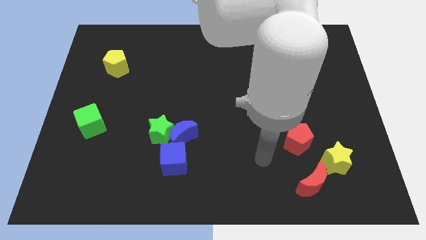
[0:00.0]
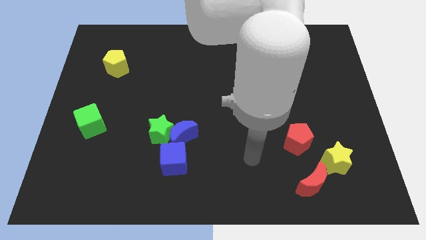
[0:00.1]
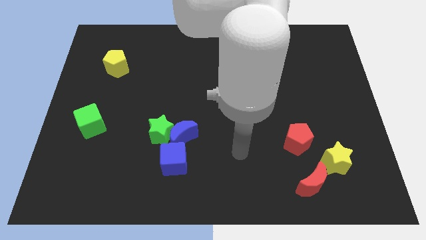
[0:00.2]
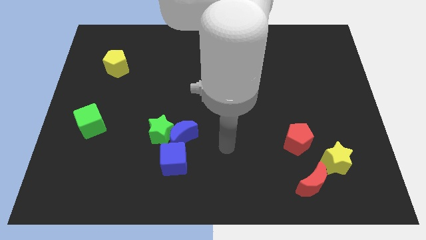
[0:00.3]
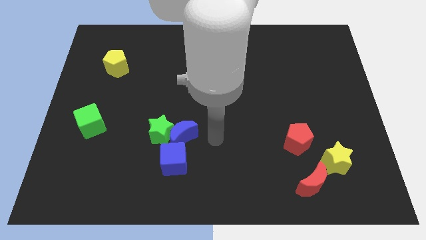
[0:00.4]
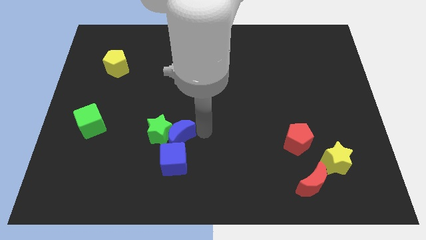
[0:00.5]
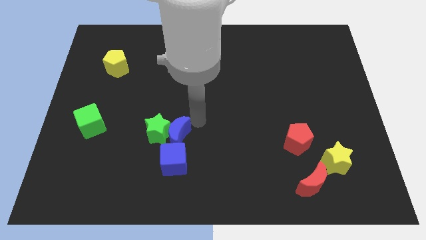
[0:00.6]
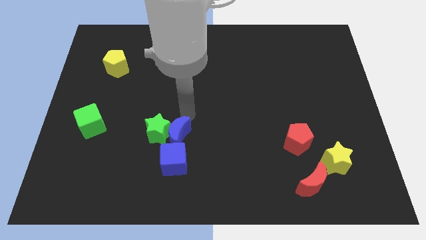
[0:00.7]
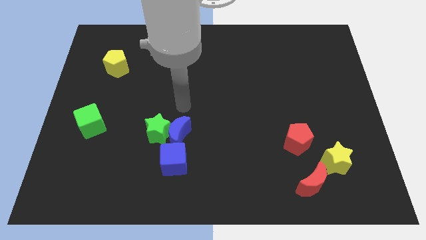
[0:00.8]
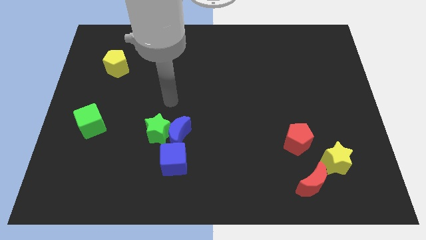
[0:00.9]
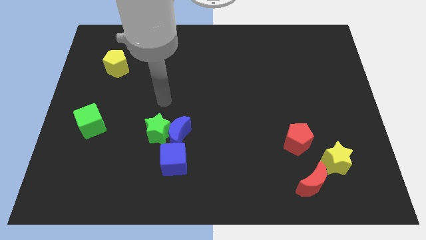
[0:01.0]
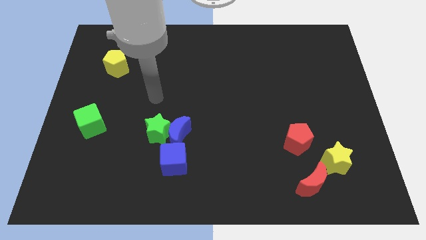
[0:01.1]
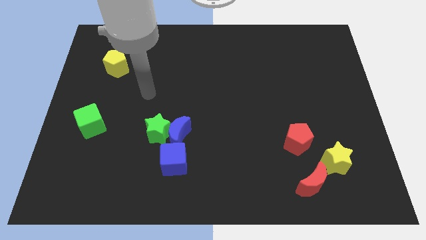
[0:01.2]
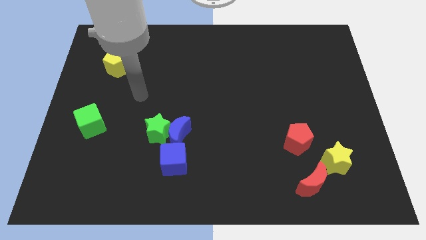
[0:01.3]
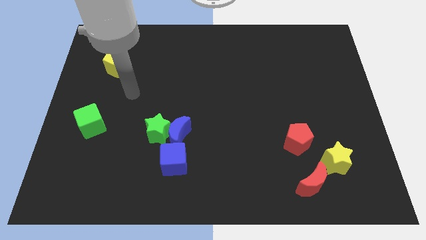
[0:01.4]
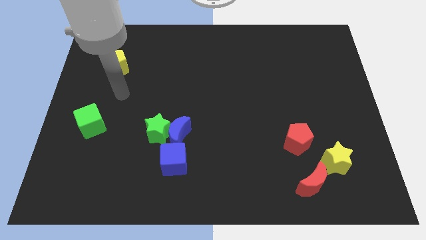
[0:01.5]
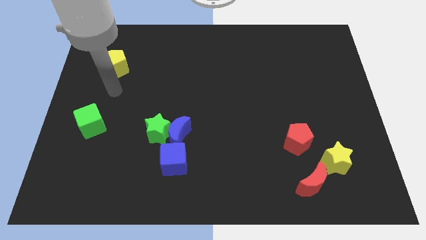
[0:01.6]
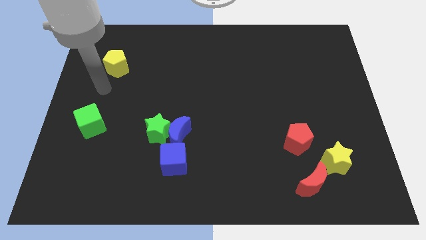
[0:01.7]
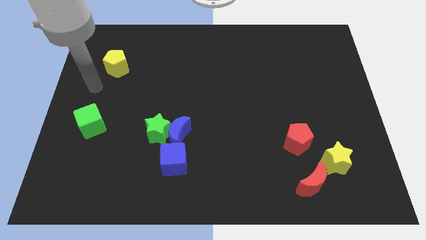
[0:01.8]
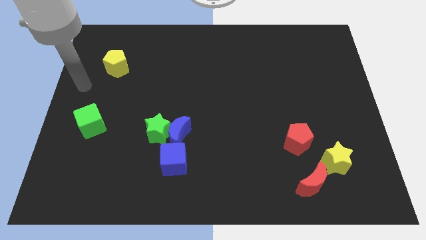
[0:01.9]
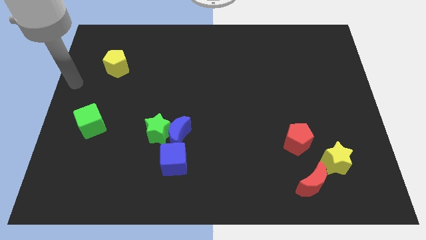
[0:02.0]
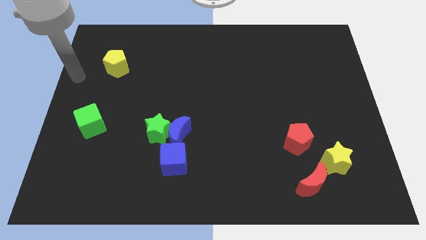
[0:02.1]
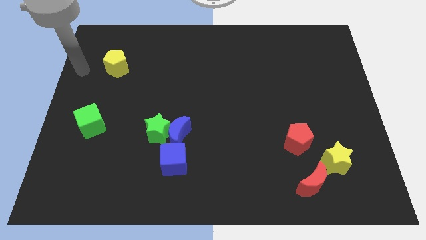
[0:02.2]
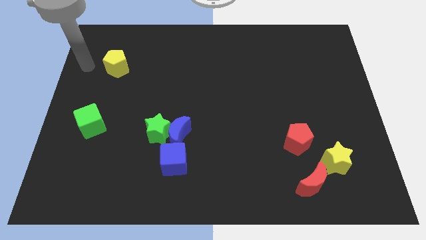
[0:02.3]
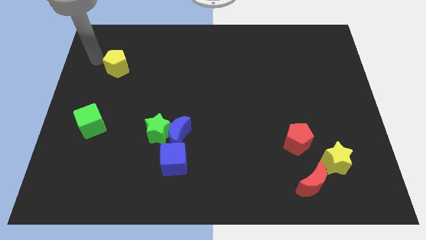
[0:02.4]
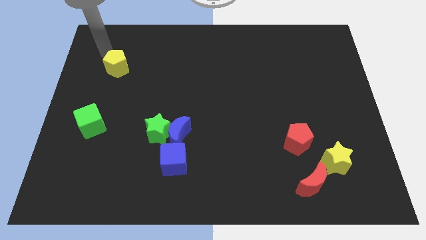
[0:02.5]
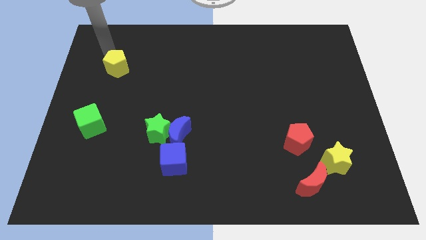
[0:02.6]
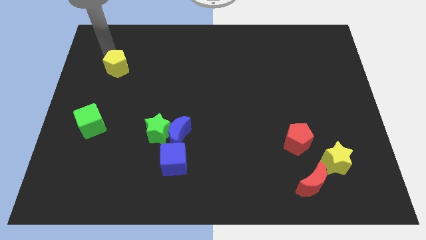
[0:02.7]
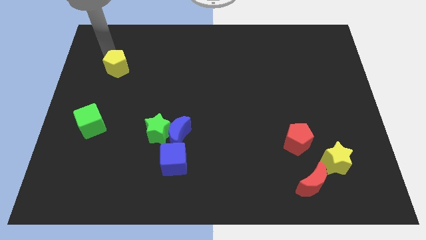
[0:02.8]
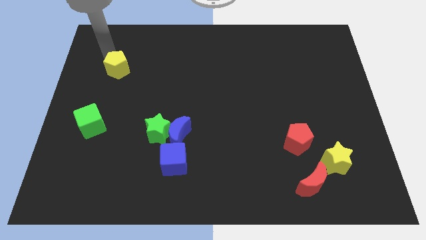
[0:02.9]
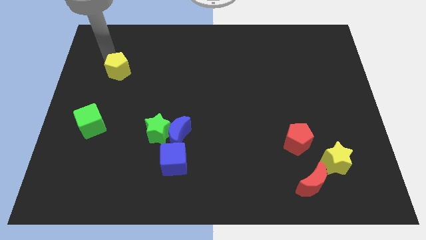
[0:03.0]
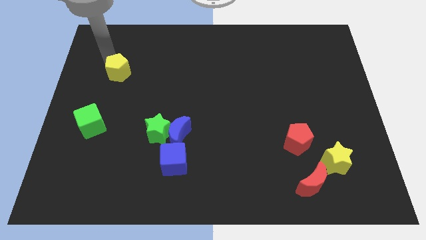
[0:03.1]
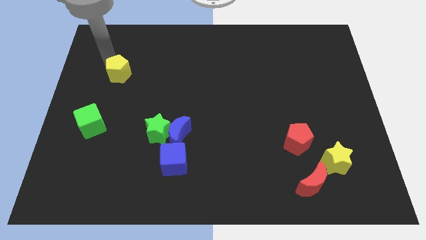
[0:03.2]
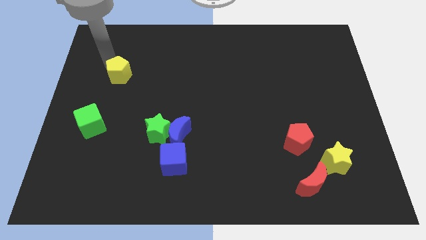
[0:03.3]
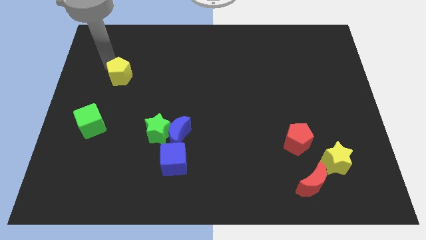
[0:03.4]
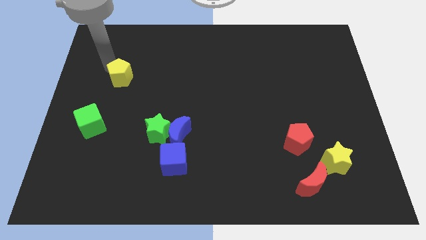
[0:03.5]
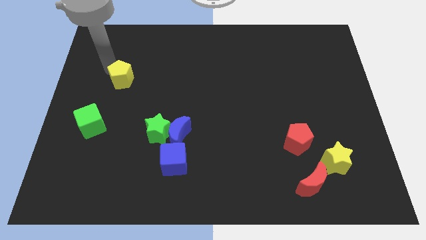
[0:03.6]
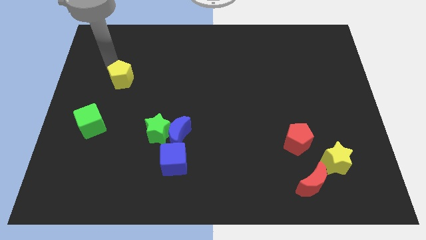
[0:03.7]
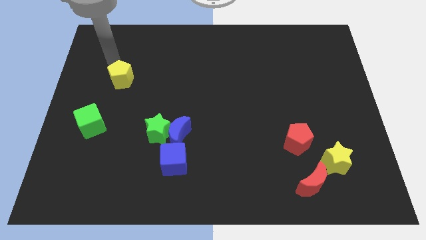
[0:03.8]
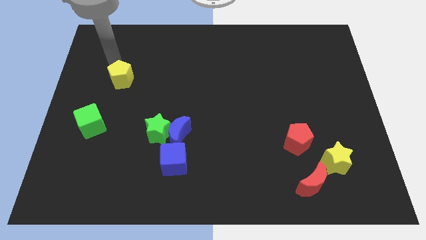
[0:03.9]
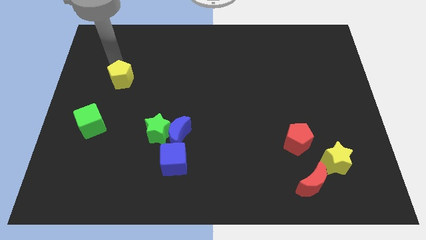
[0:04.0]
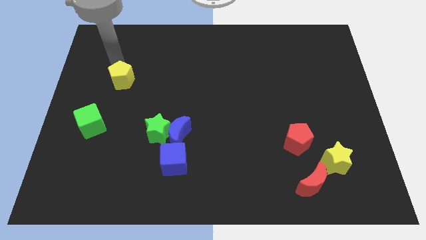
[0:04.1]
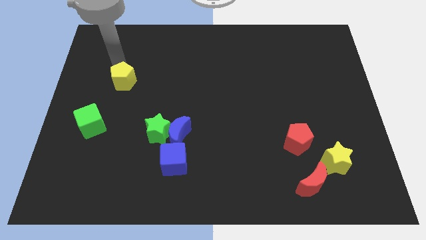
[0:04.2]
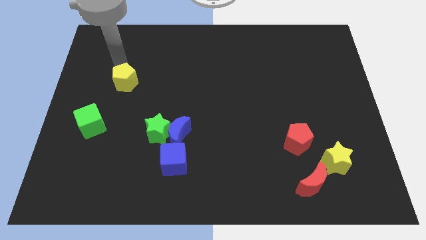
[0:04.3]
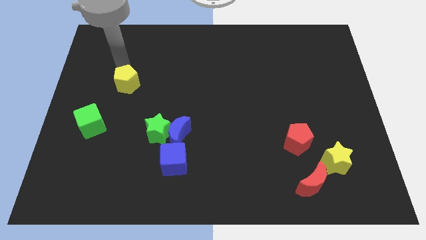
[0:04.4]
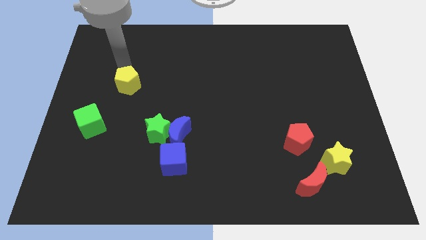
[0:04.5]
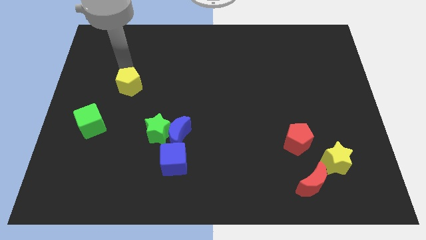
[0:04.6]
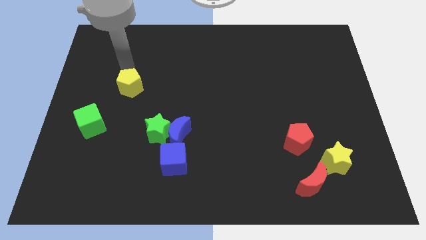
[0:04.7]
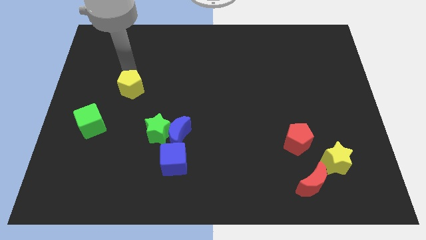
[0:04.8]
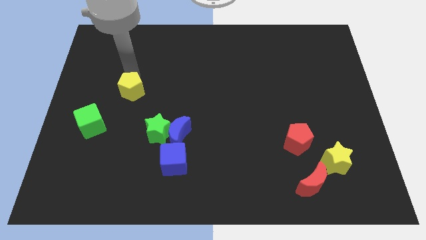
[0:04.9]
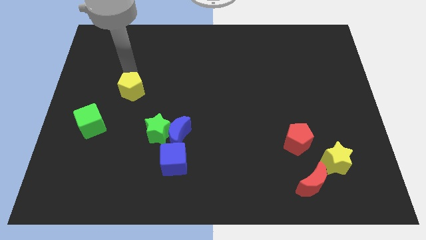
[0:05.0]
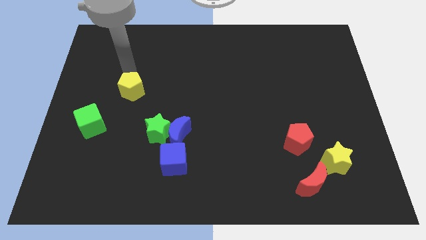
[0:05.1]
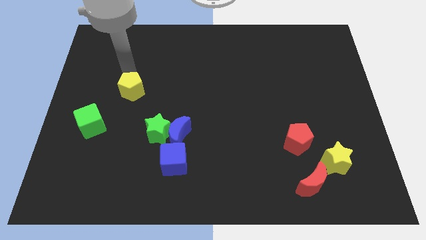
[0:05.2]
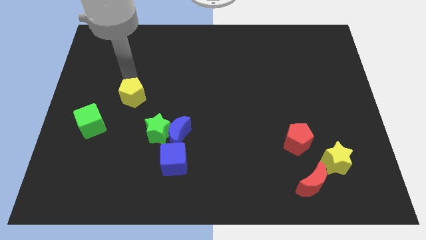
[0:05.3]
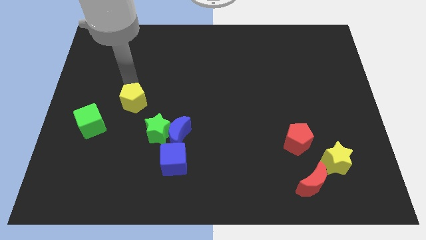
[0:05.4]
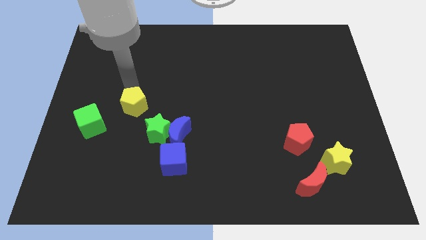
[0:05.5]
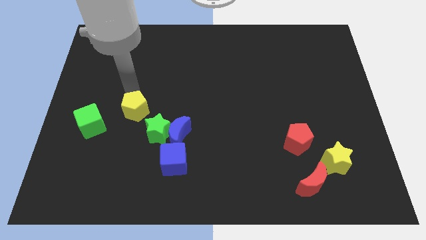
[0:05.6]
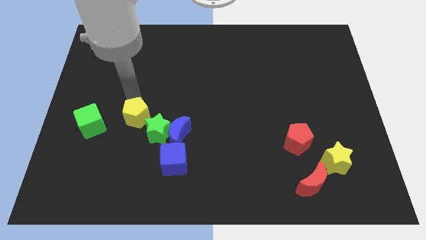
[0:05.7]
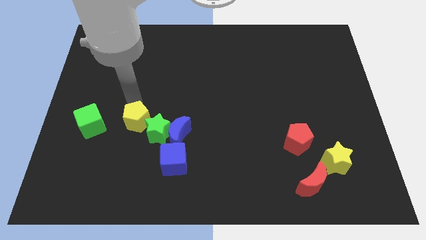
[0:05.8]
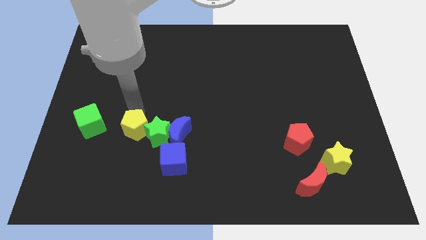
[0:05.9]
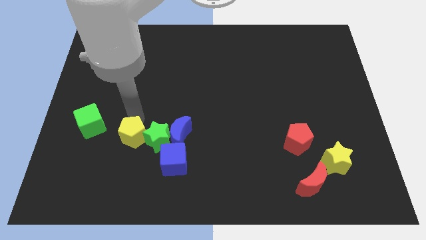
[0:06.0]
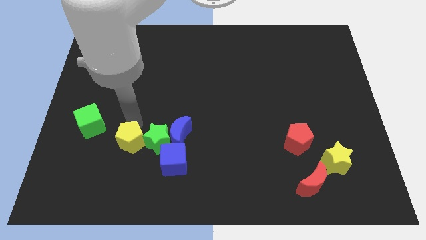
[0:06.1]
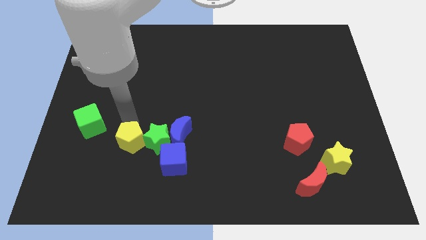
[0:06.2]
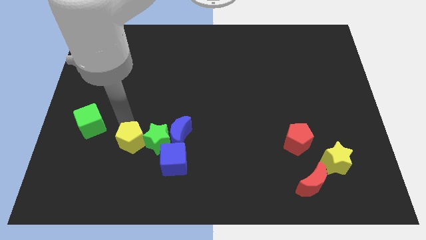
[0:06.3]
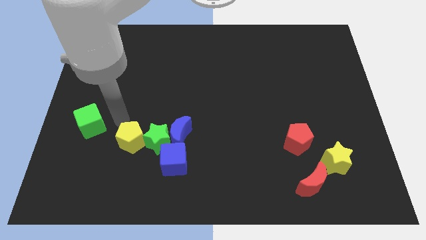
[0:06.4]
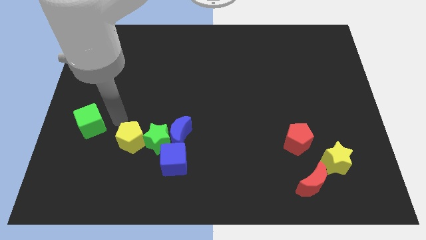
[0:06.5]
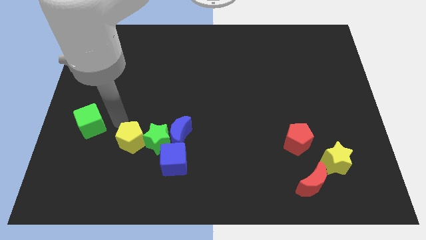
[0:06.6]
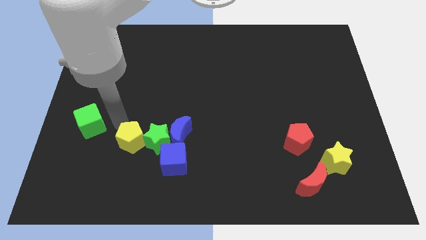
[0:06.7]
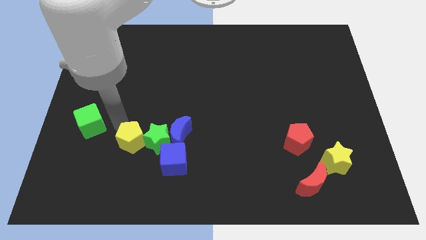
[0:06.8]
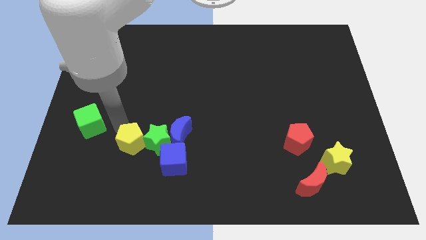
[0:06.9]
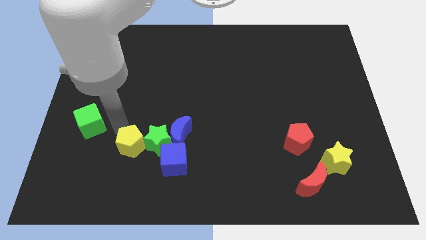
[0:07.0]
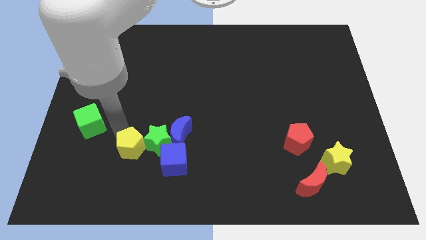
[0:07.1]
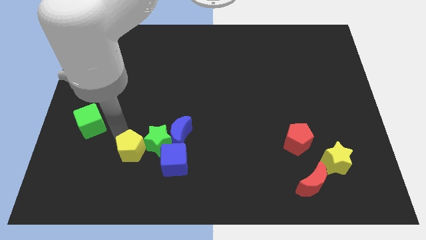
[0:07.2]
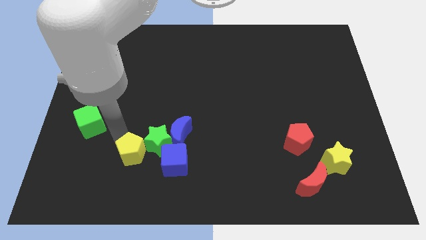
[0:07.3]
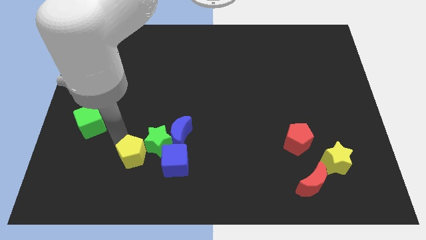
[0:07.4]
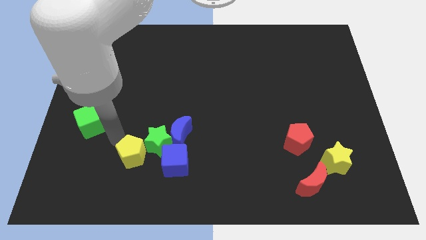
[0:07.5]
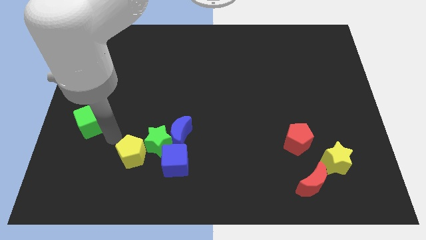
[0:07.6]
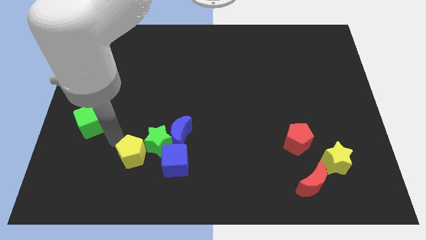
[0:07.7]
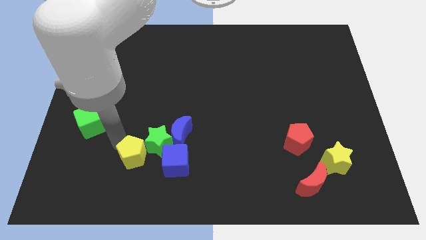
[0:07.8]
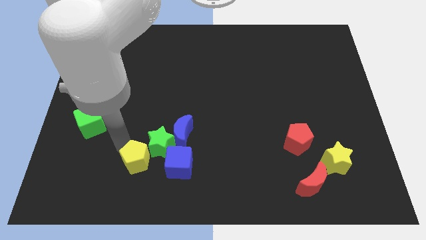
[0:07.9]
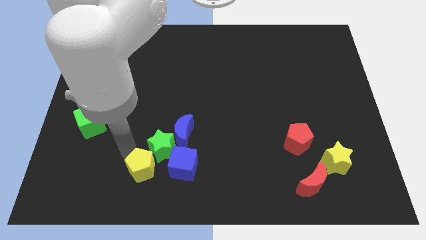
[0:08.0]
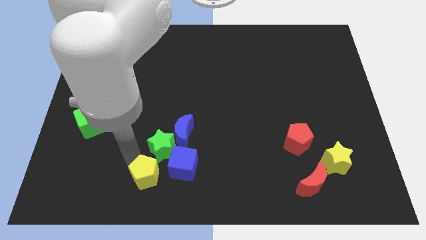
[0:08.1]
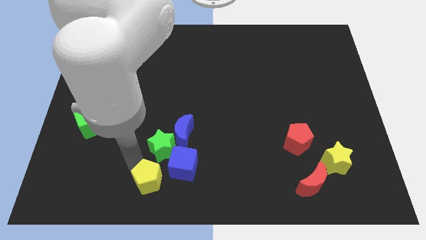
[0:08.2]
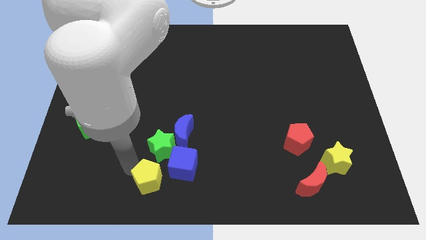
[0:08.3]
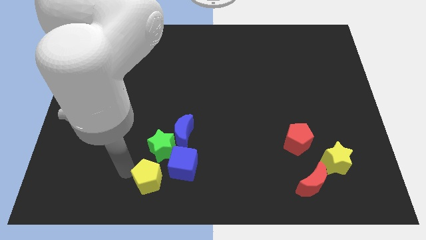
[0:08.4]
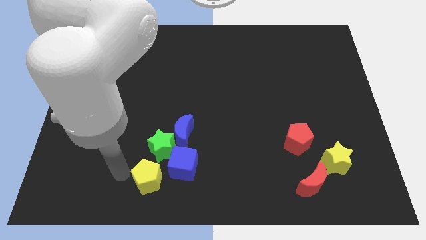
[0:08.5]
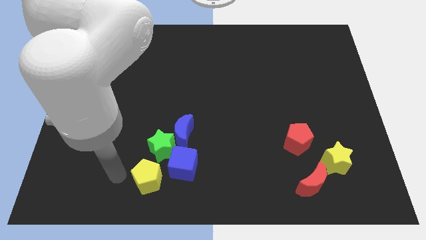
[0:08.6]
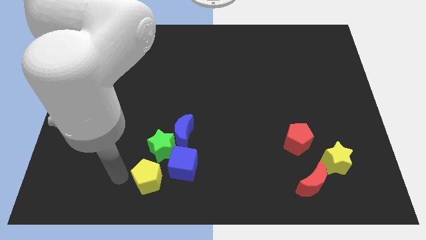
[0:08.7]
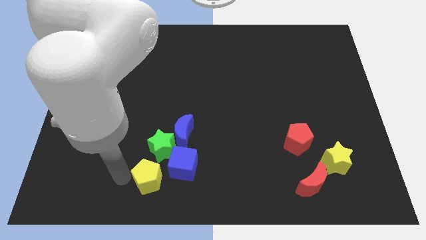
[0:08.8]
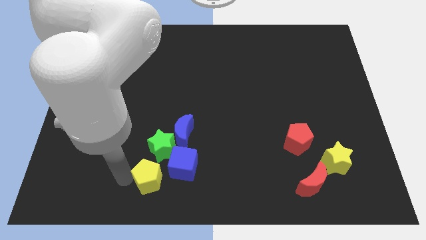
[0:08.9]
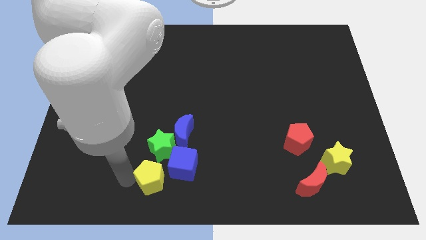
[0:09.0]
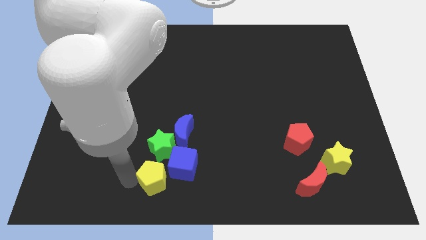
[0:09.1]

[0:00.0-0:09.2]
push the yellow pentagon to the bottom side
